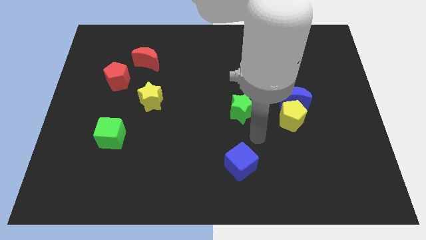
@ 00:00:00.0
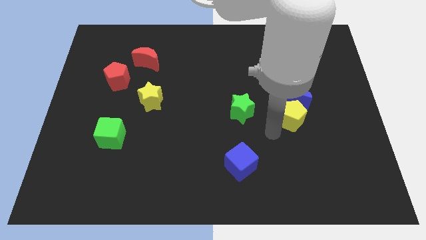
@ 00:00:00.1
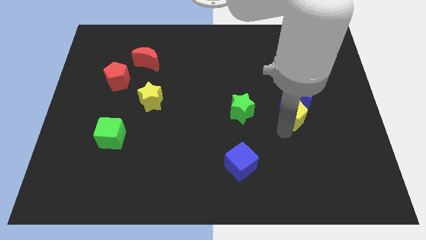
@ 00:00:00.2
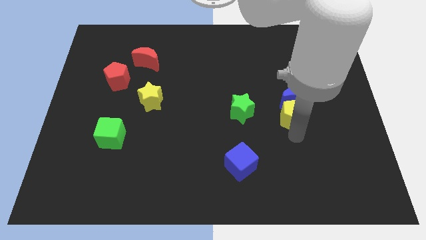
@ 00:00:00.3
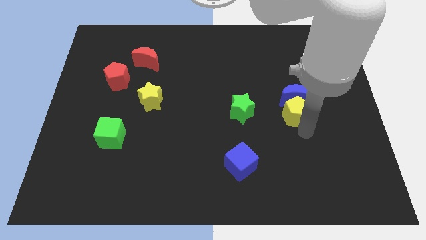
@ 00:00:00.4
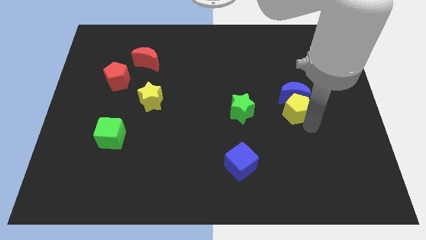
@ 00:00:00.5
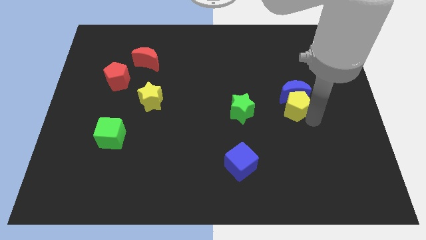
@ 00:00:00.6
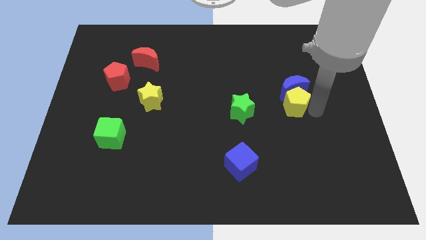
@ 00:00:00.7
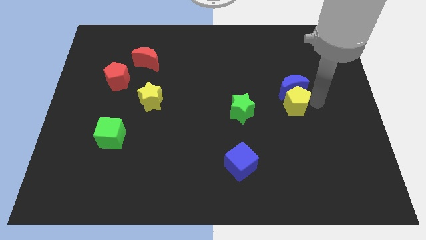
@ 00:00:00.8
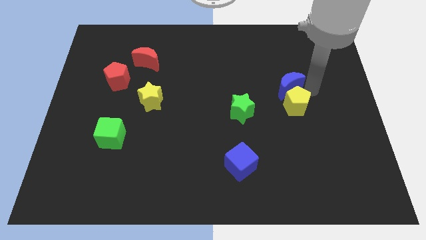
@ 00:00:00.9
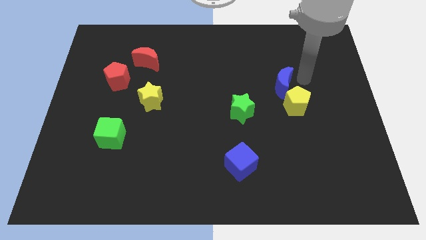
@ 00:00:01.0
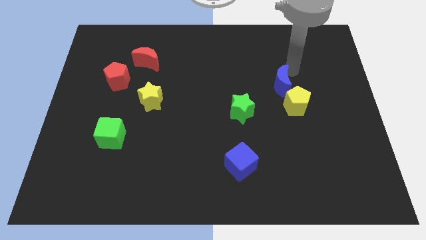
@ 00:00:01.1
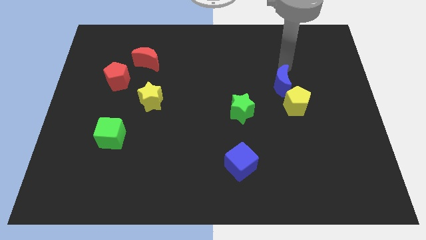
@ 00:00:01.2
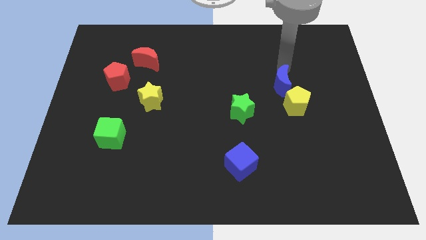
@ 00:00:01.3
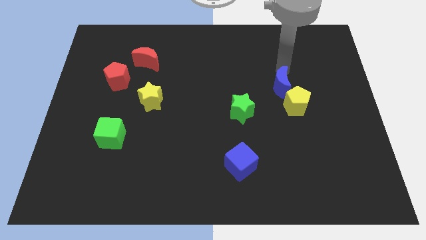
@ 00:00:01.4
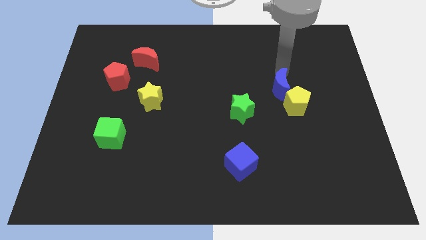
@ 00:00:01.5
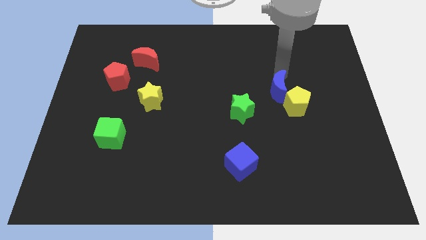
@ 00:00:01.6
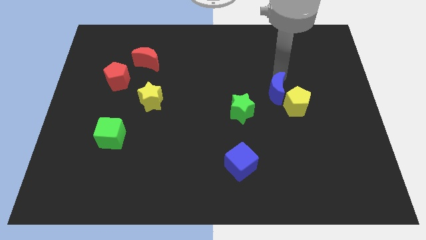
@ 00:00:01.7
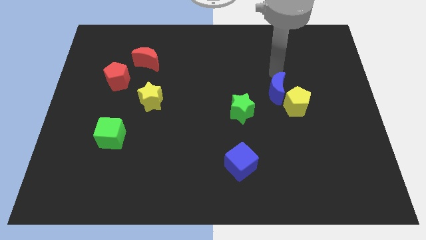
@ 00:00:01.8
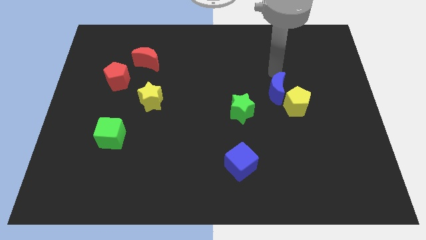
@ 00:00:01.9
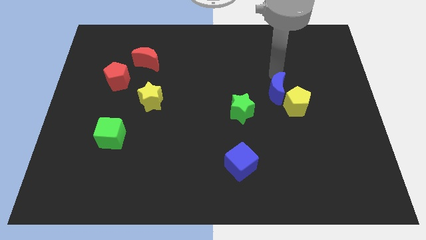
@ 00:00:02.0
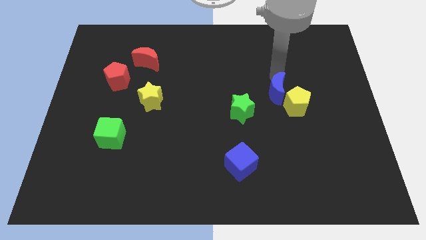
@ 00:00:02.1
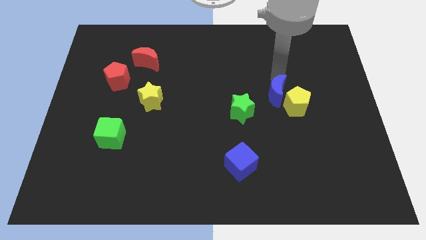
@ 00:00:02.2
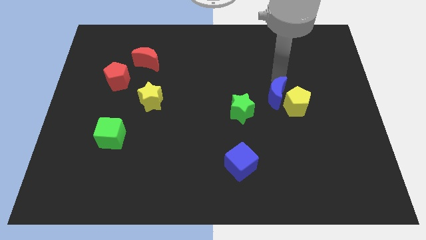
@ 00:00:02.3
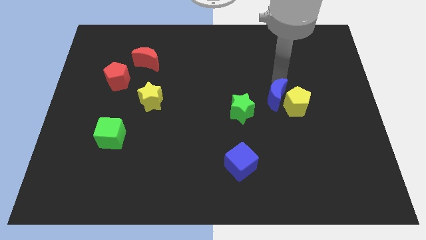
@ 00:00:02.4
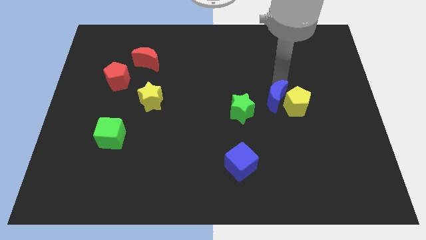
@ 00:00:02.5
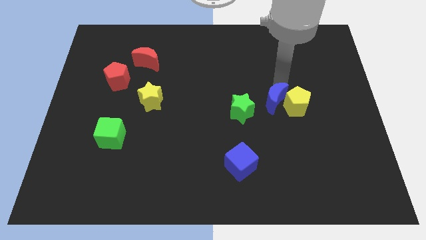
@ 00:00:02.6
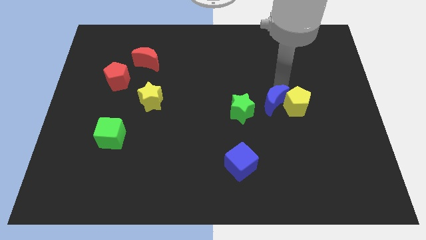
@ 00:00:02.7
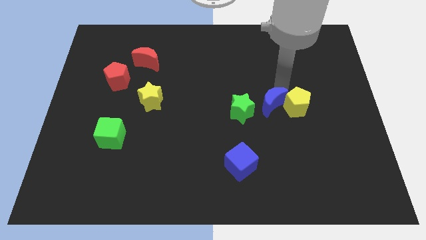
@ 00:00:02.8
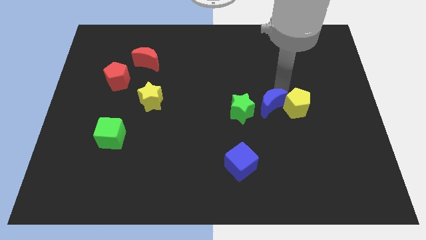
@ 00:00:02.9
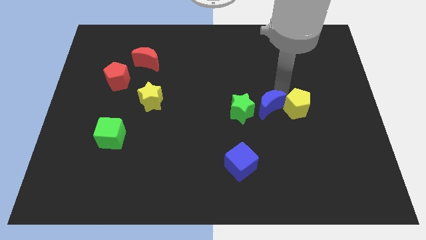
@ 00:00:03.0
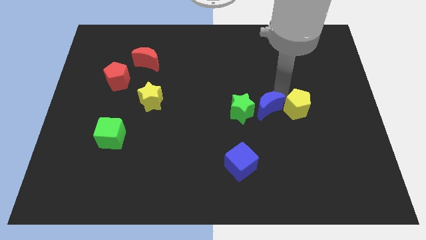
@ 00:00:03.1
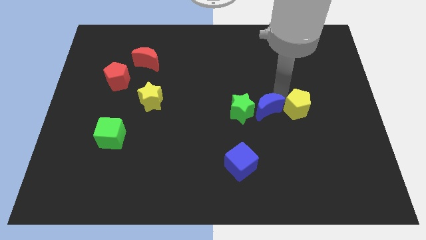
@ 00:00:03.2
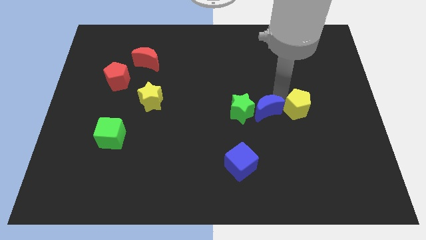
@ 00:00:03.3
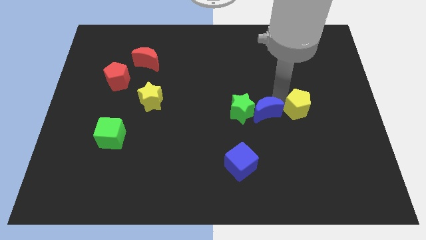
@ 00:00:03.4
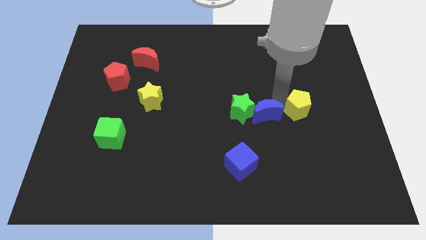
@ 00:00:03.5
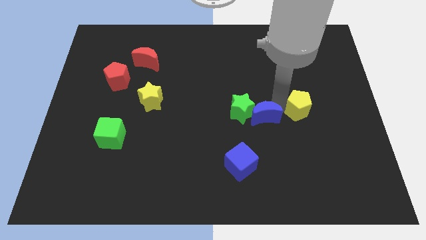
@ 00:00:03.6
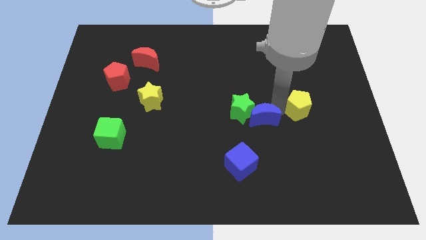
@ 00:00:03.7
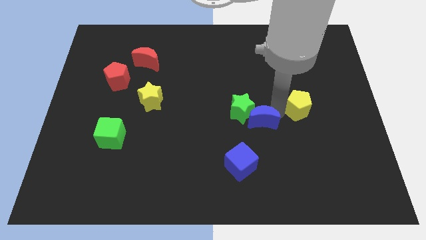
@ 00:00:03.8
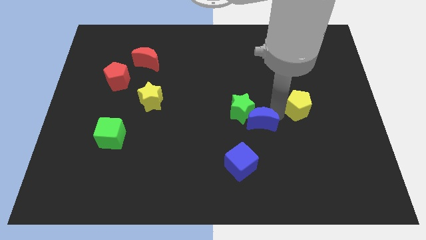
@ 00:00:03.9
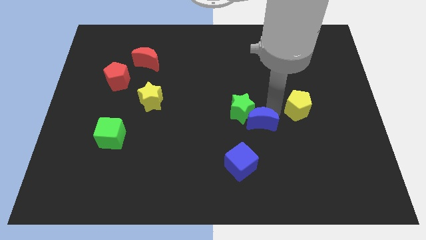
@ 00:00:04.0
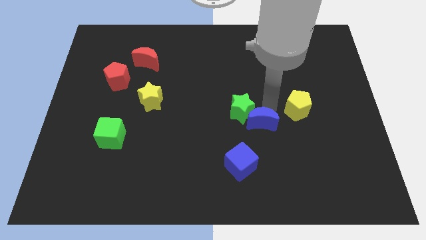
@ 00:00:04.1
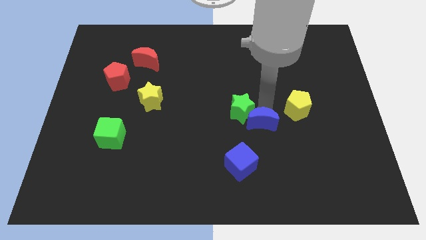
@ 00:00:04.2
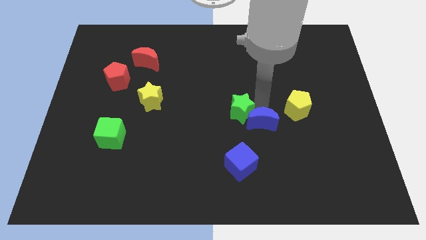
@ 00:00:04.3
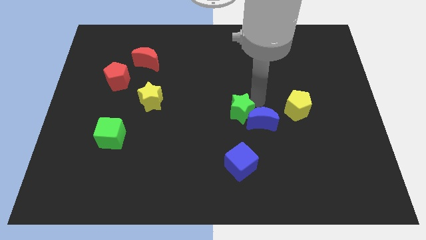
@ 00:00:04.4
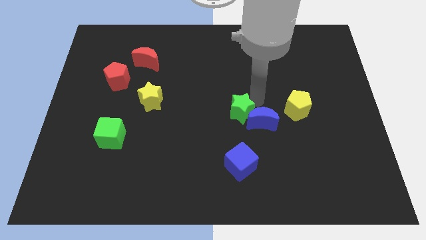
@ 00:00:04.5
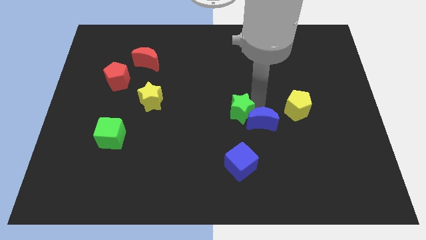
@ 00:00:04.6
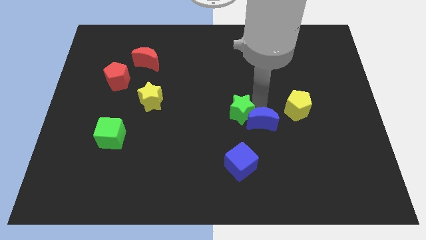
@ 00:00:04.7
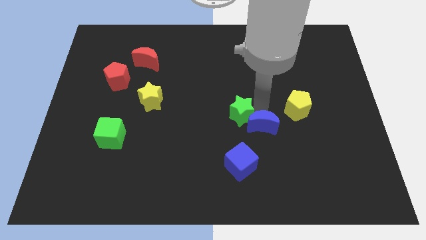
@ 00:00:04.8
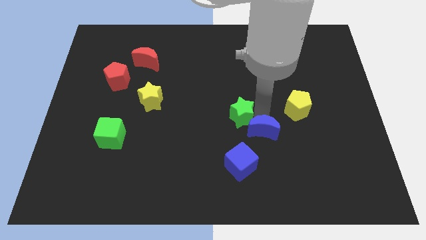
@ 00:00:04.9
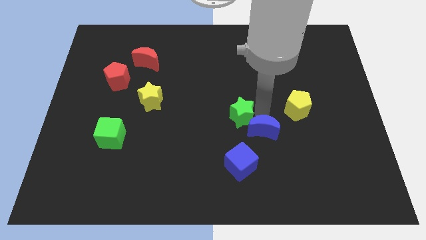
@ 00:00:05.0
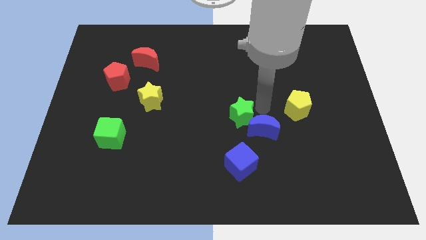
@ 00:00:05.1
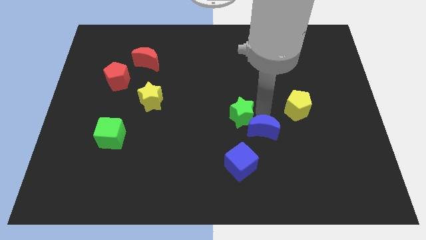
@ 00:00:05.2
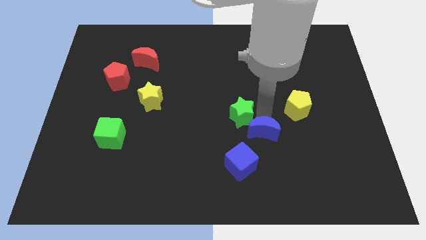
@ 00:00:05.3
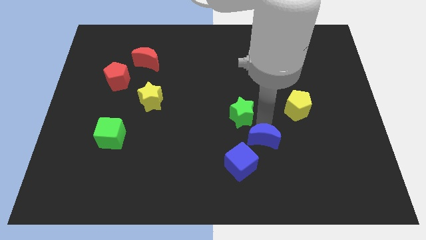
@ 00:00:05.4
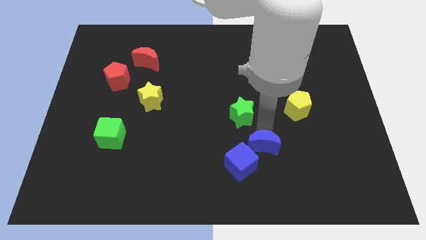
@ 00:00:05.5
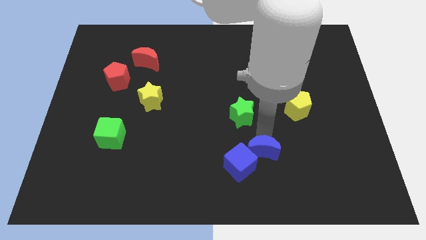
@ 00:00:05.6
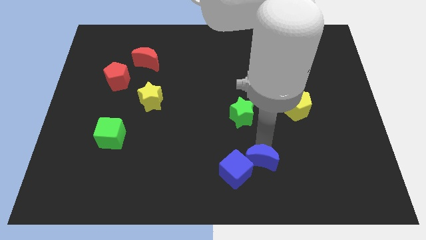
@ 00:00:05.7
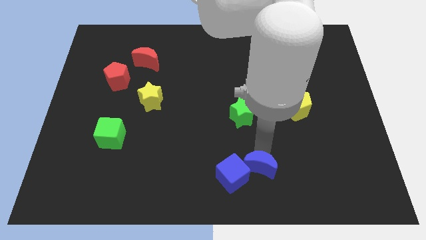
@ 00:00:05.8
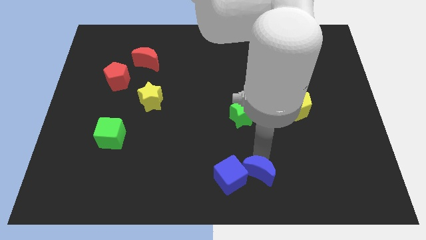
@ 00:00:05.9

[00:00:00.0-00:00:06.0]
move the blue moon to the bottom
